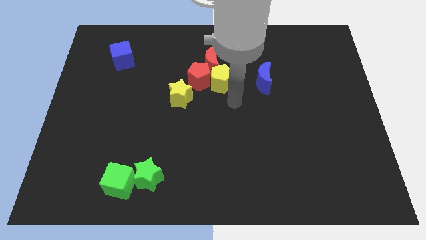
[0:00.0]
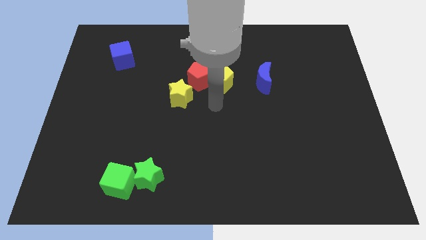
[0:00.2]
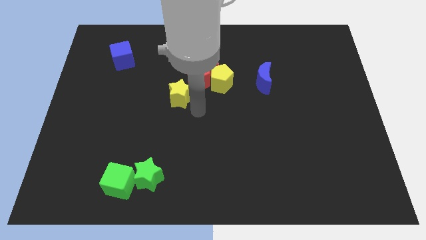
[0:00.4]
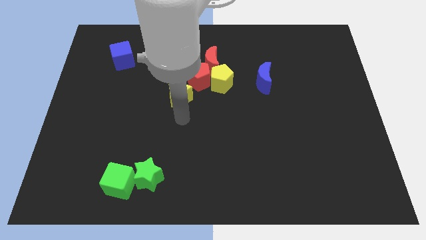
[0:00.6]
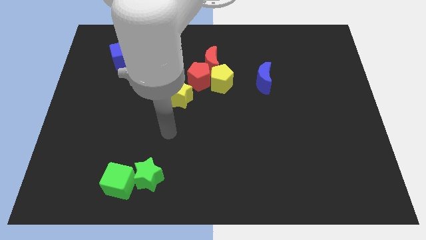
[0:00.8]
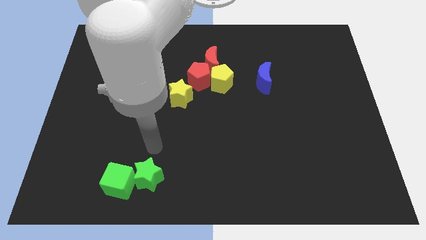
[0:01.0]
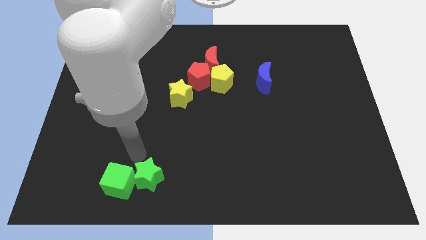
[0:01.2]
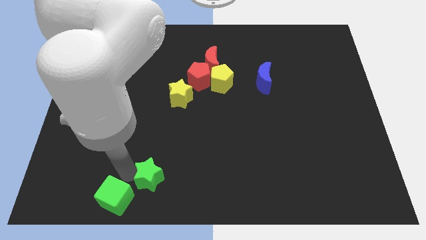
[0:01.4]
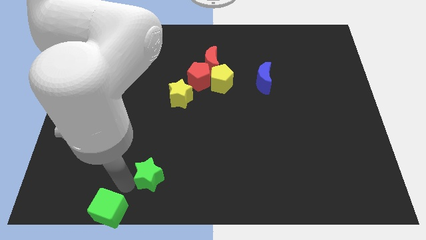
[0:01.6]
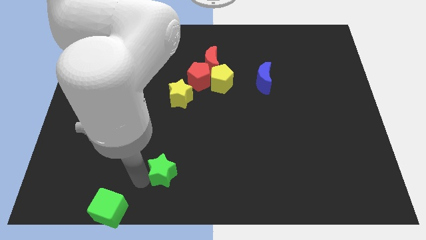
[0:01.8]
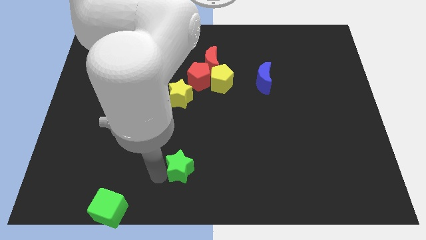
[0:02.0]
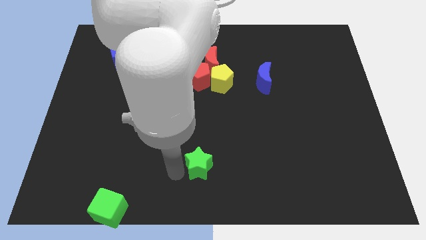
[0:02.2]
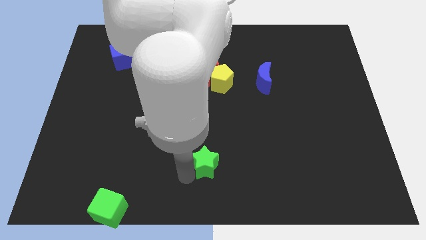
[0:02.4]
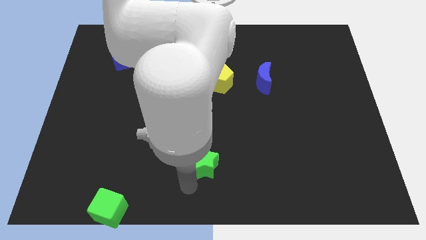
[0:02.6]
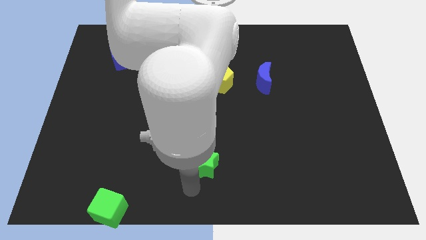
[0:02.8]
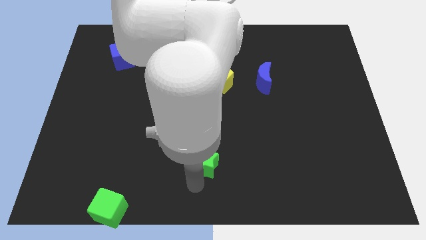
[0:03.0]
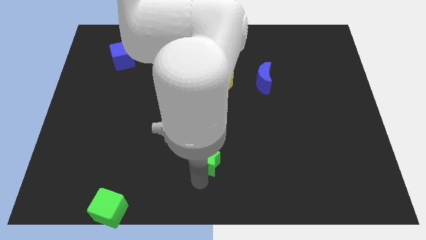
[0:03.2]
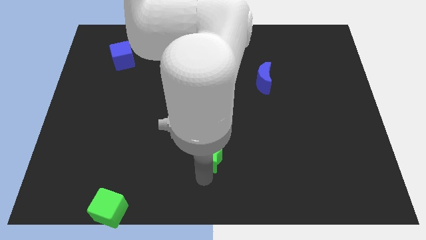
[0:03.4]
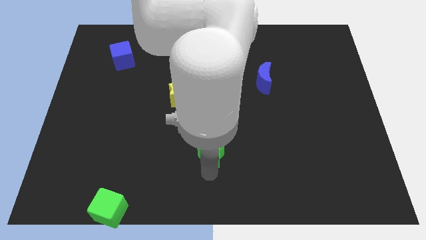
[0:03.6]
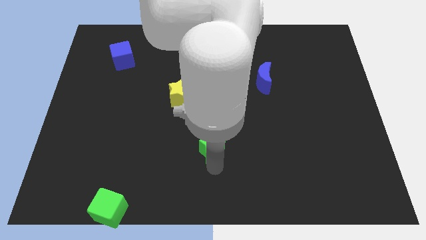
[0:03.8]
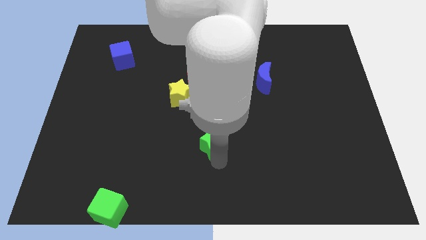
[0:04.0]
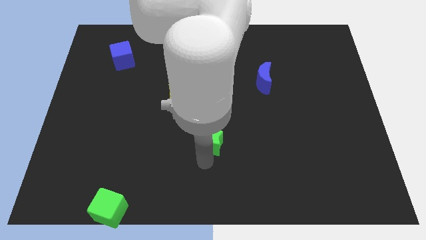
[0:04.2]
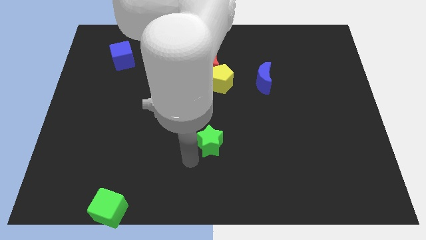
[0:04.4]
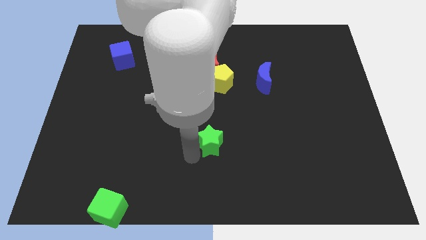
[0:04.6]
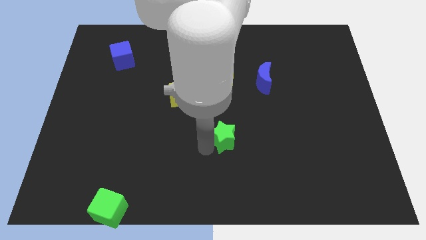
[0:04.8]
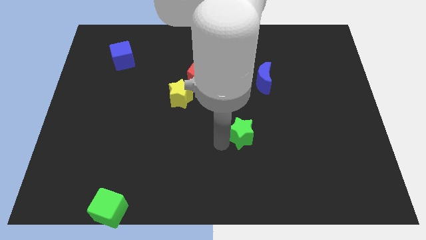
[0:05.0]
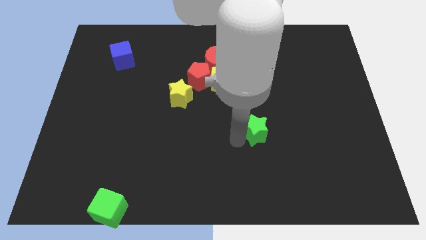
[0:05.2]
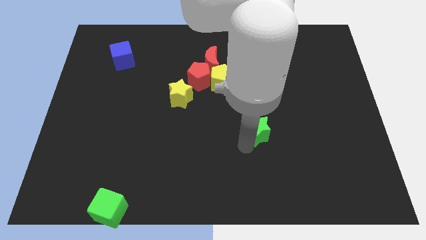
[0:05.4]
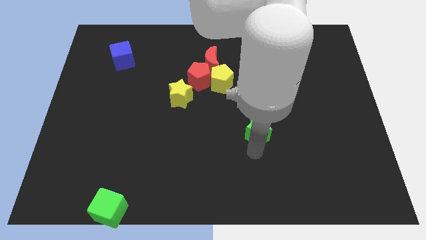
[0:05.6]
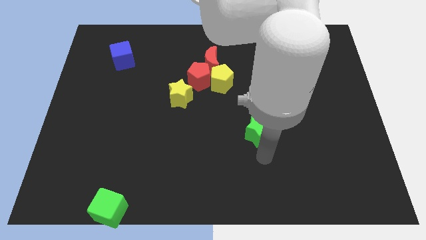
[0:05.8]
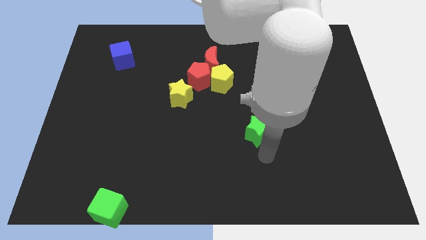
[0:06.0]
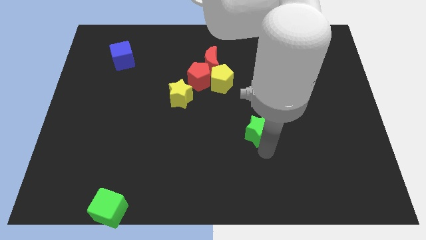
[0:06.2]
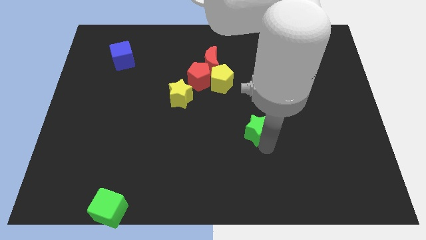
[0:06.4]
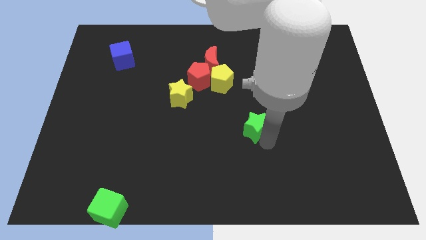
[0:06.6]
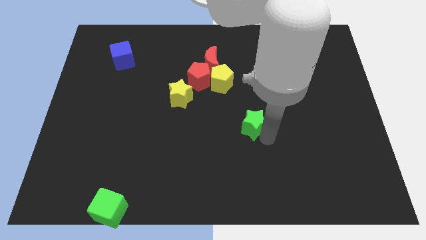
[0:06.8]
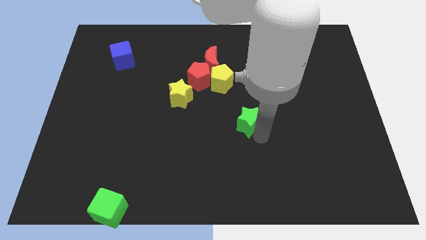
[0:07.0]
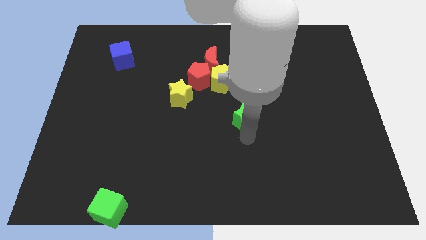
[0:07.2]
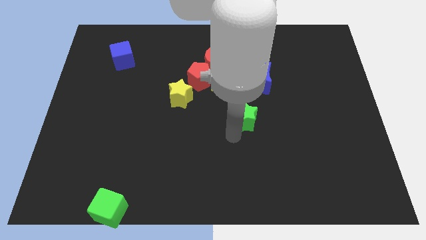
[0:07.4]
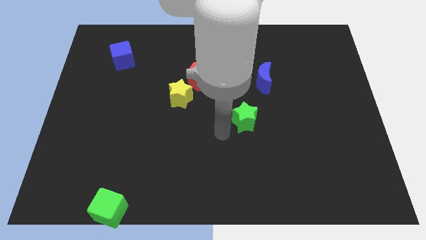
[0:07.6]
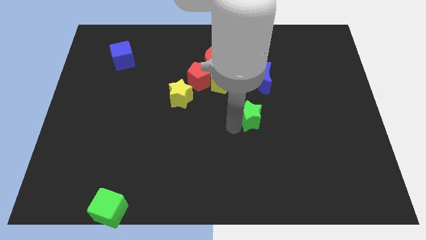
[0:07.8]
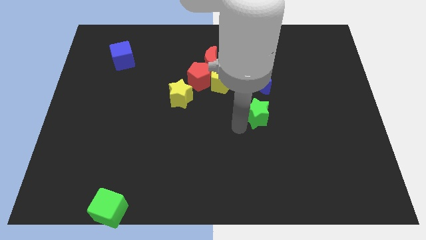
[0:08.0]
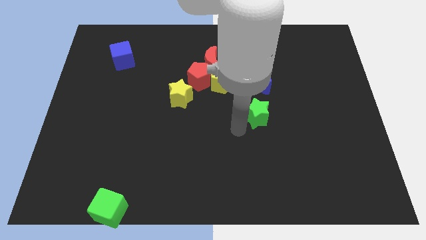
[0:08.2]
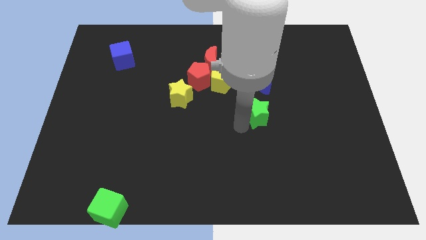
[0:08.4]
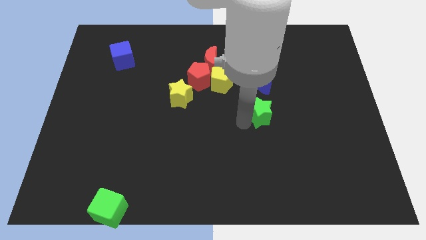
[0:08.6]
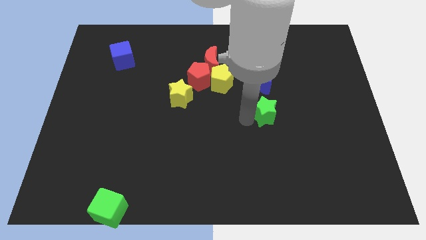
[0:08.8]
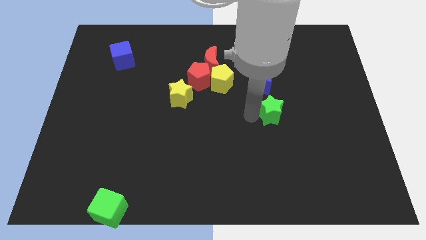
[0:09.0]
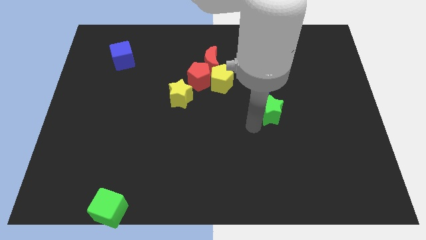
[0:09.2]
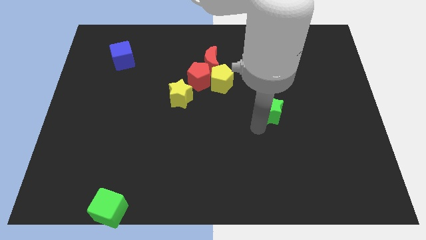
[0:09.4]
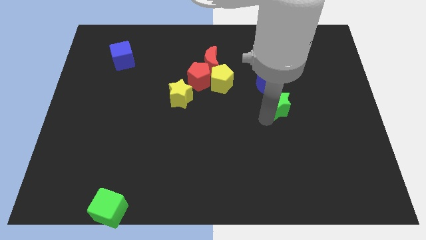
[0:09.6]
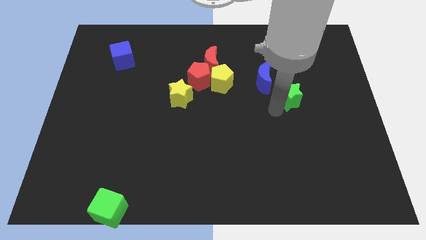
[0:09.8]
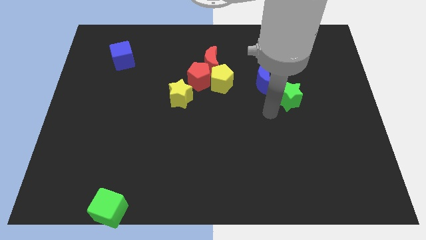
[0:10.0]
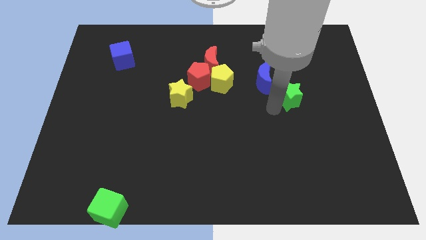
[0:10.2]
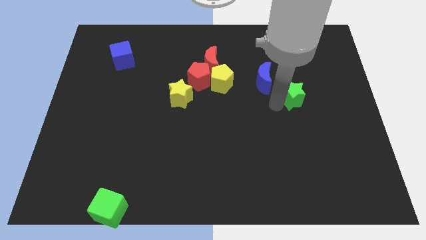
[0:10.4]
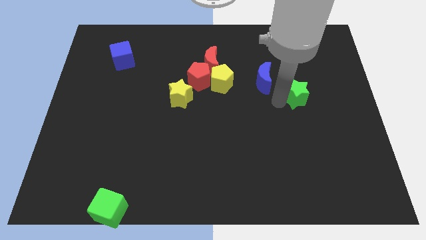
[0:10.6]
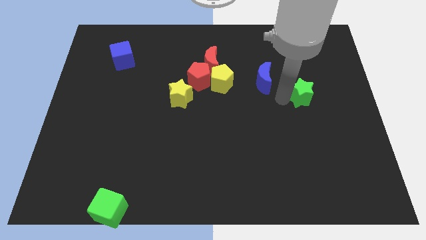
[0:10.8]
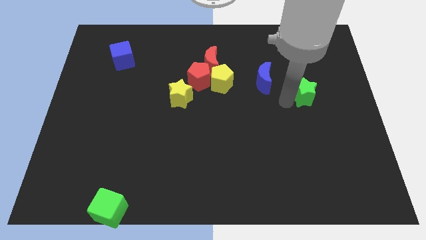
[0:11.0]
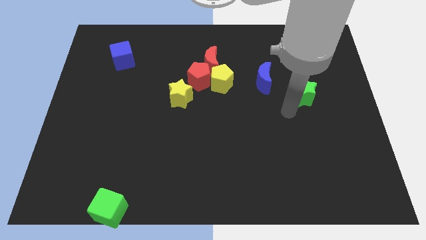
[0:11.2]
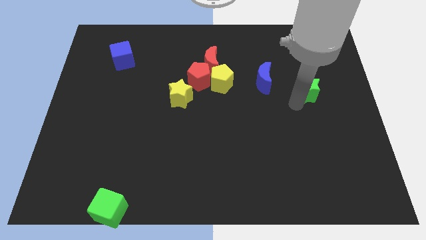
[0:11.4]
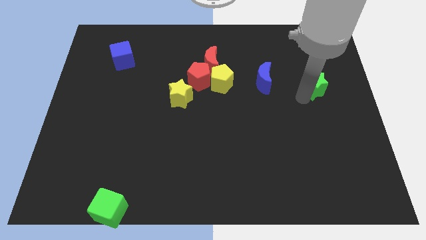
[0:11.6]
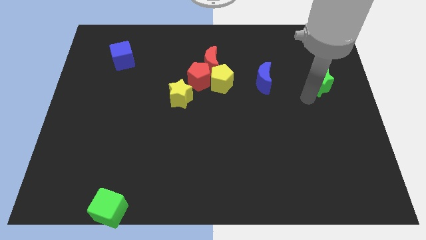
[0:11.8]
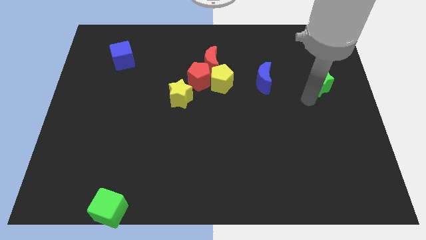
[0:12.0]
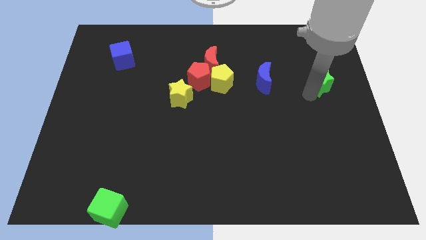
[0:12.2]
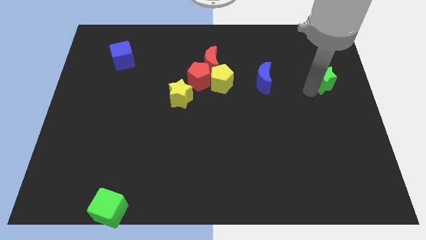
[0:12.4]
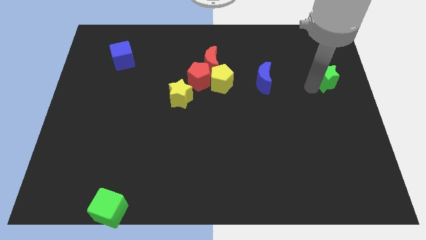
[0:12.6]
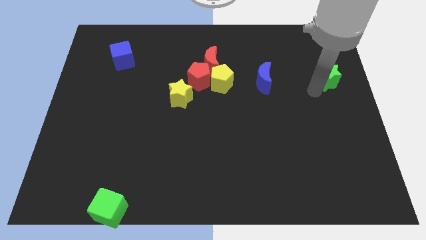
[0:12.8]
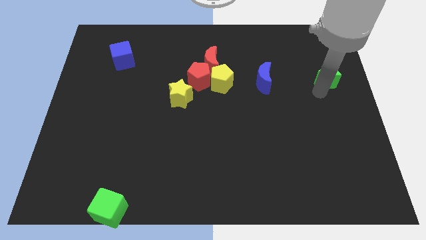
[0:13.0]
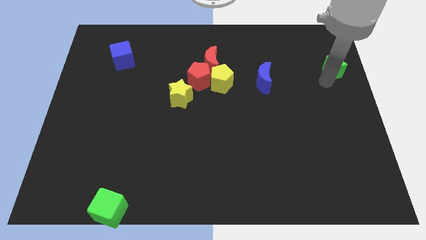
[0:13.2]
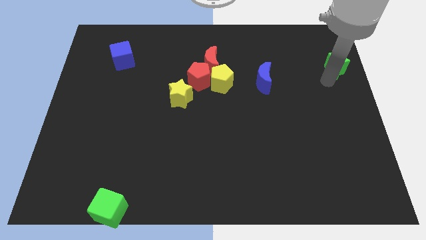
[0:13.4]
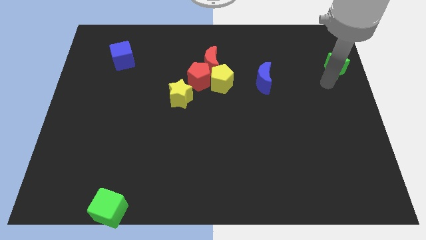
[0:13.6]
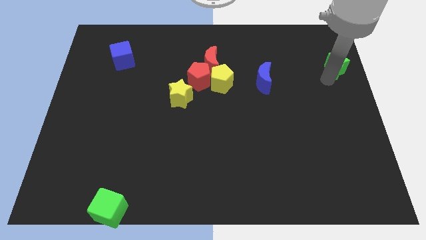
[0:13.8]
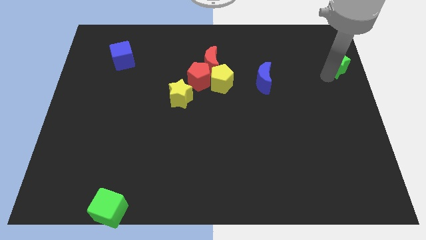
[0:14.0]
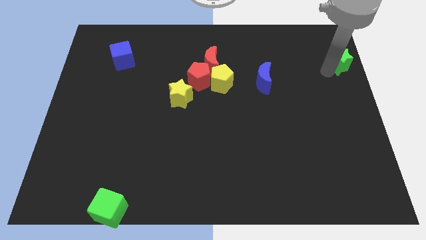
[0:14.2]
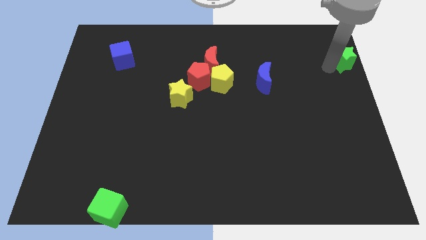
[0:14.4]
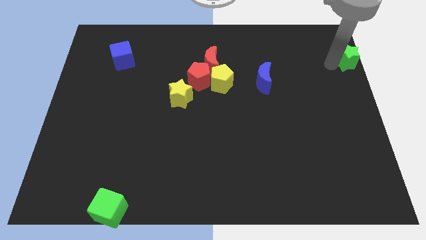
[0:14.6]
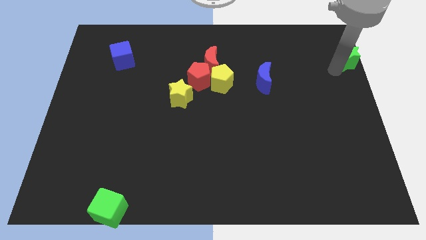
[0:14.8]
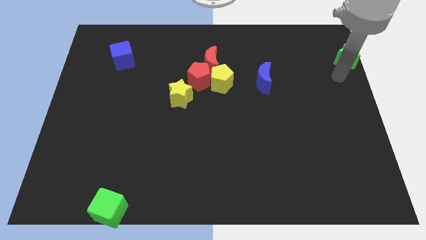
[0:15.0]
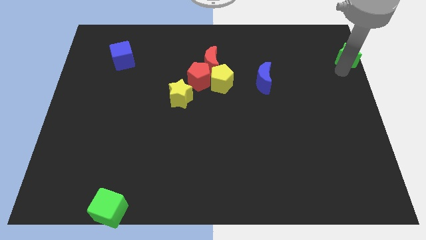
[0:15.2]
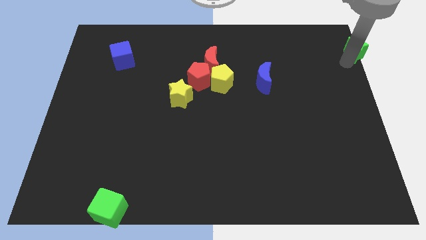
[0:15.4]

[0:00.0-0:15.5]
slide the green star to the top right corner
